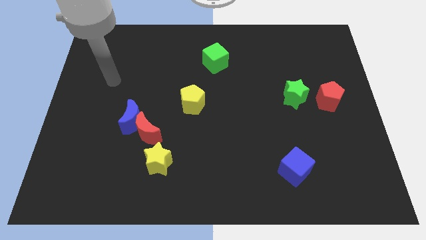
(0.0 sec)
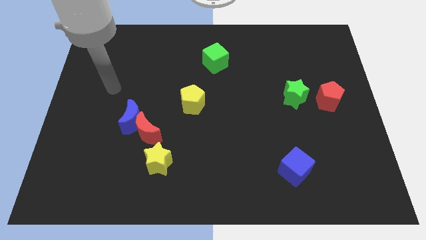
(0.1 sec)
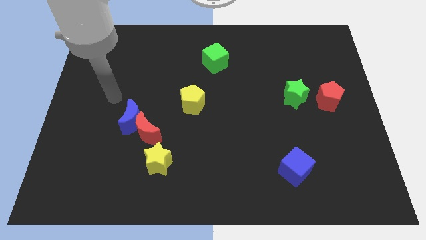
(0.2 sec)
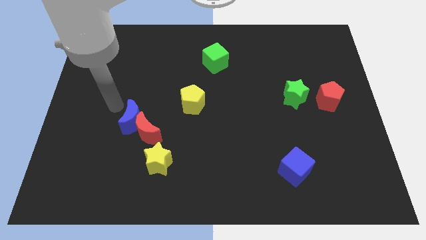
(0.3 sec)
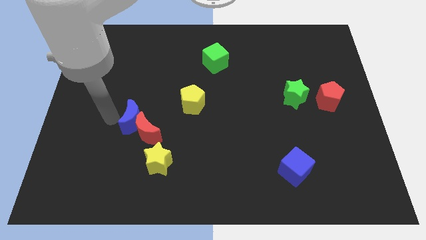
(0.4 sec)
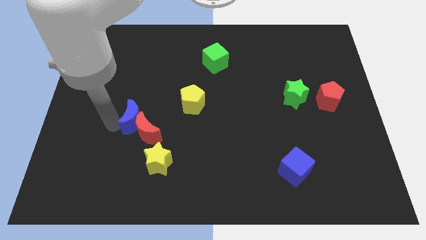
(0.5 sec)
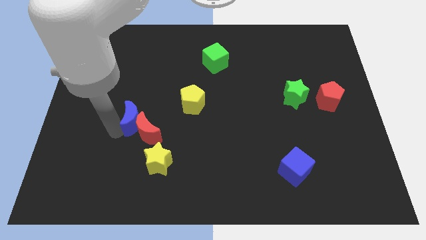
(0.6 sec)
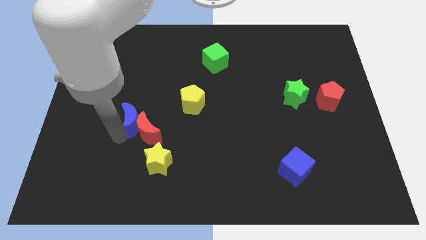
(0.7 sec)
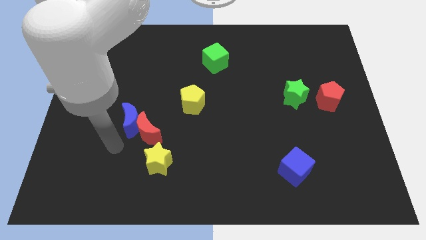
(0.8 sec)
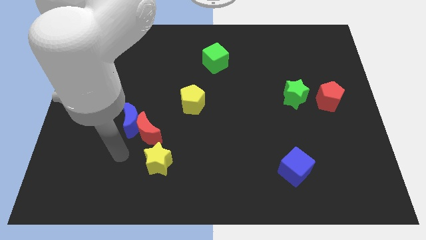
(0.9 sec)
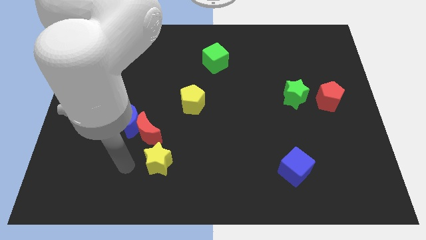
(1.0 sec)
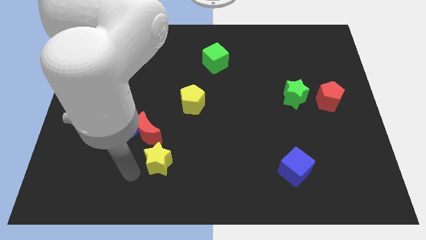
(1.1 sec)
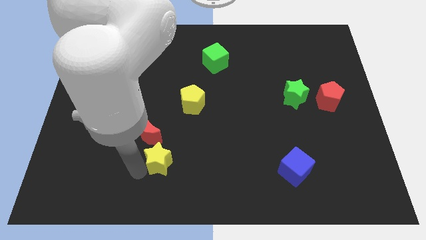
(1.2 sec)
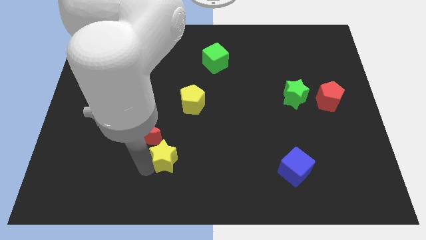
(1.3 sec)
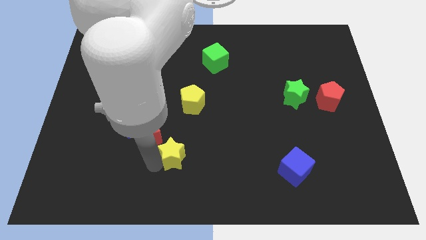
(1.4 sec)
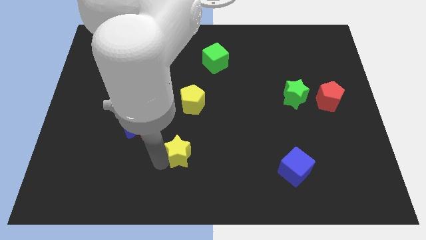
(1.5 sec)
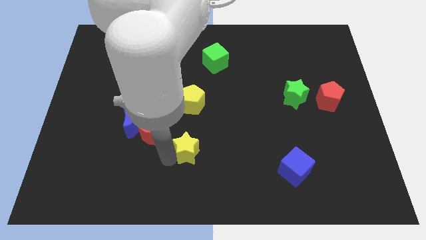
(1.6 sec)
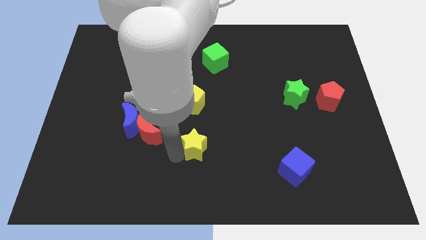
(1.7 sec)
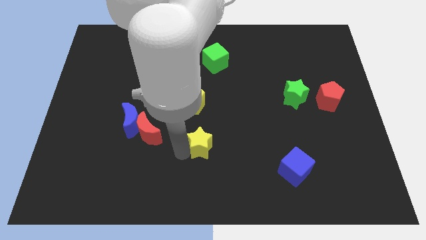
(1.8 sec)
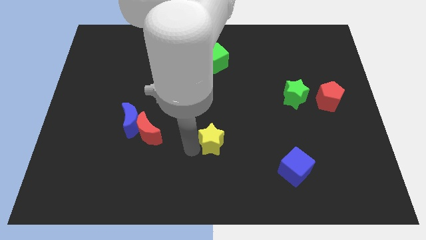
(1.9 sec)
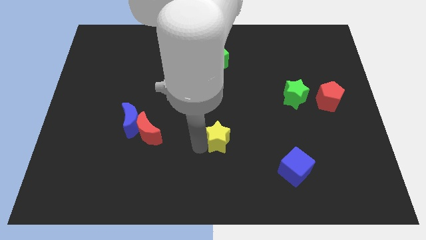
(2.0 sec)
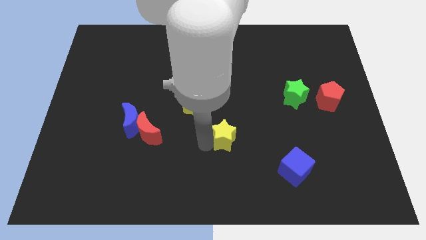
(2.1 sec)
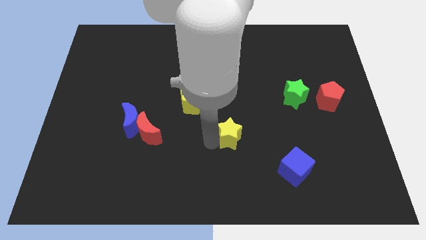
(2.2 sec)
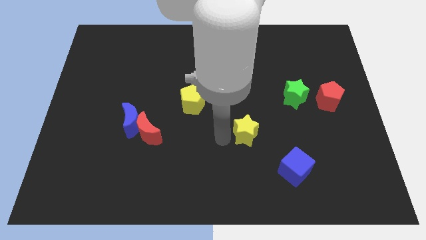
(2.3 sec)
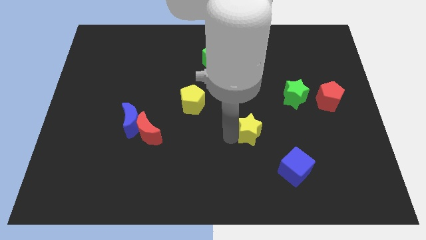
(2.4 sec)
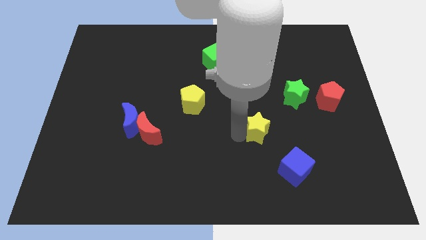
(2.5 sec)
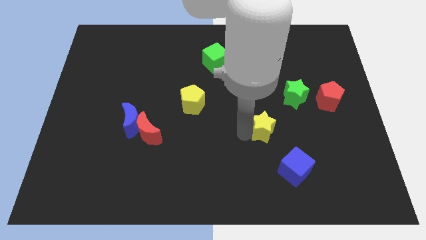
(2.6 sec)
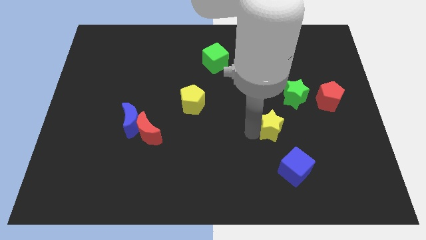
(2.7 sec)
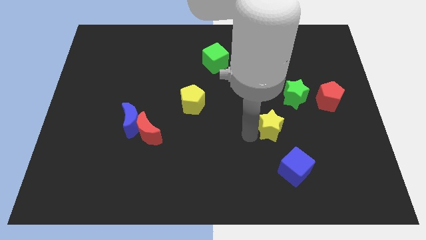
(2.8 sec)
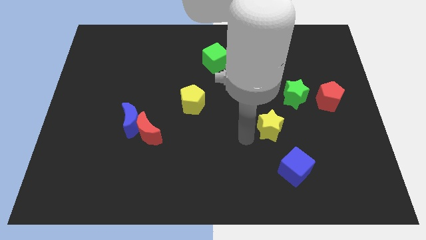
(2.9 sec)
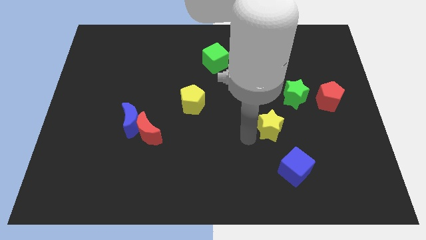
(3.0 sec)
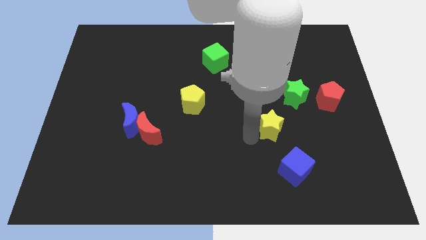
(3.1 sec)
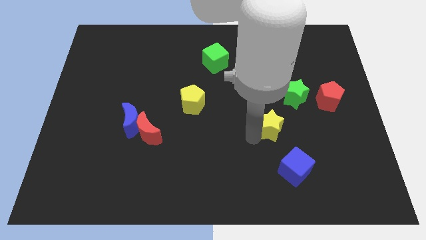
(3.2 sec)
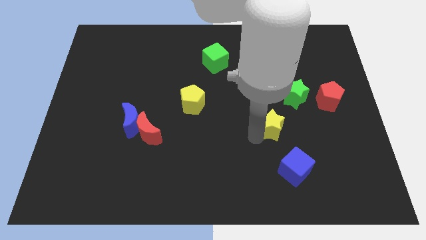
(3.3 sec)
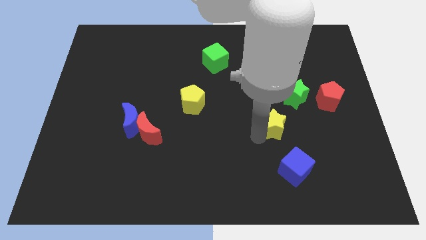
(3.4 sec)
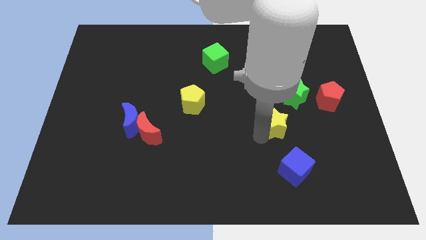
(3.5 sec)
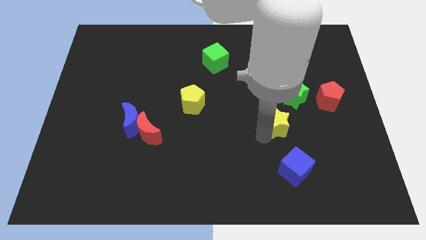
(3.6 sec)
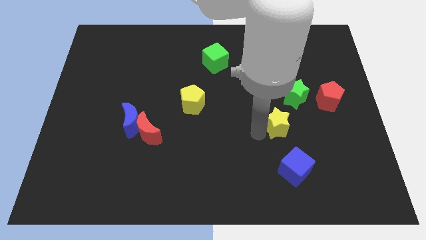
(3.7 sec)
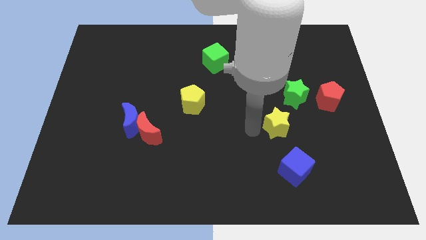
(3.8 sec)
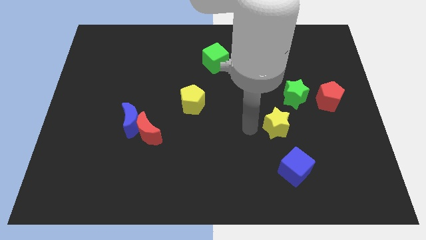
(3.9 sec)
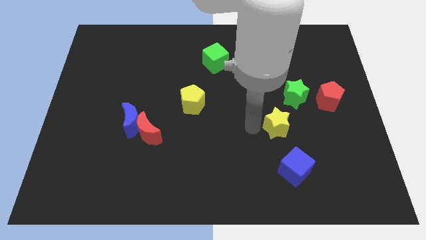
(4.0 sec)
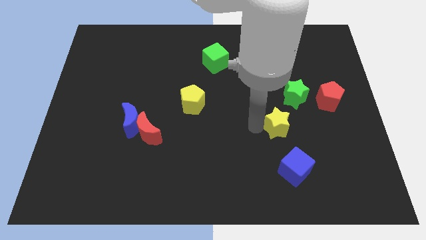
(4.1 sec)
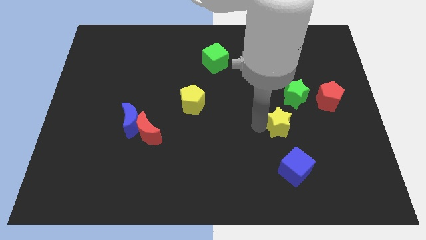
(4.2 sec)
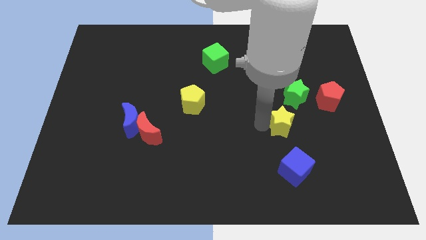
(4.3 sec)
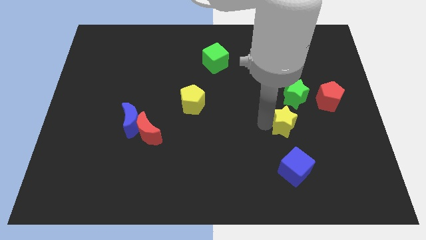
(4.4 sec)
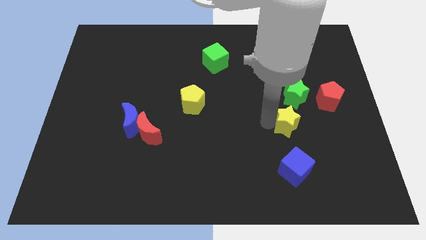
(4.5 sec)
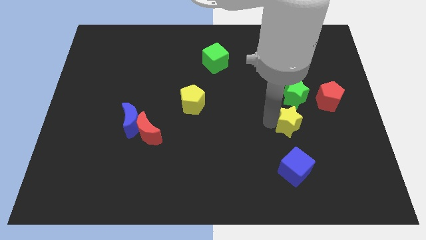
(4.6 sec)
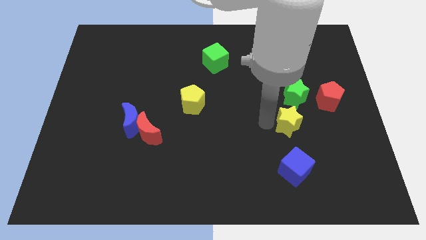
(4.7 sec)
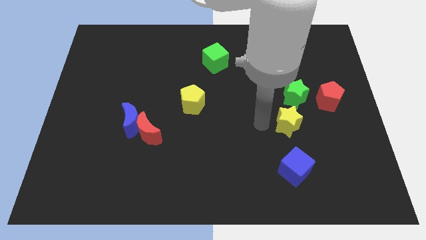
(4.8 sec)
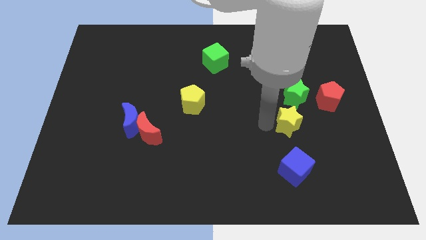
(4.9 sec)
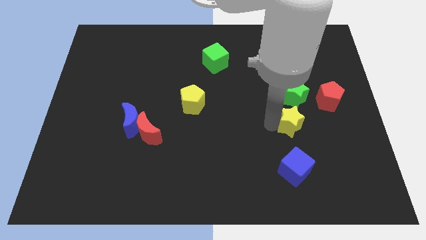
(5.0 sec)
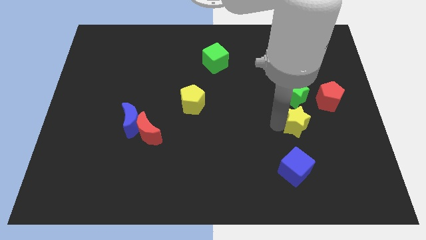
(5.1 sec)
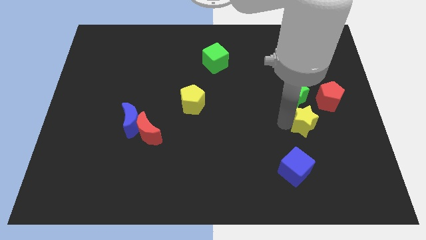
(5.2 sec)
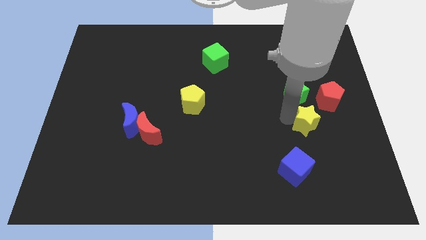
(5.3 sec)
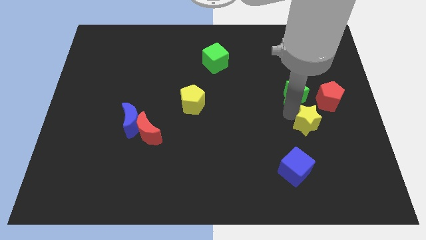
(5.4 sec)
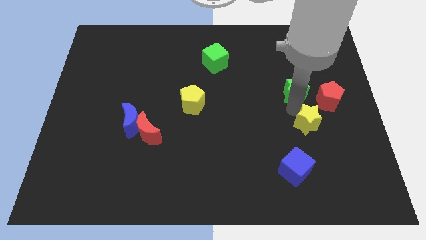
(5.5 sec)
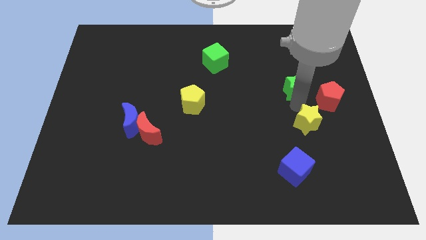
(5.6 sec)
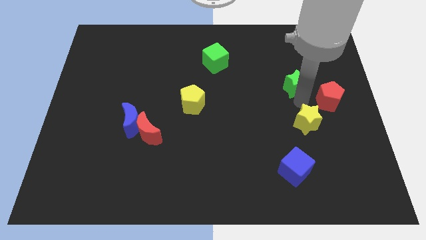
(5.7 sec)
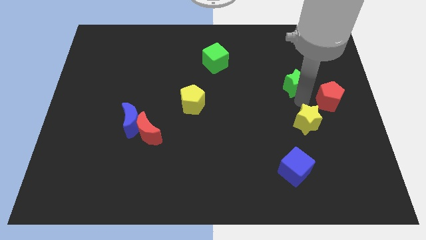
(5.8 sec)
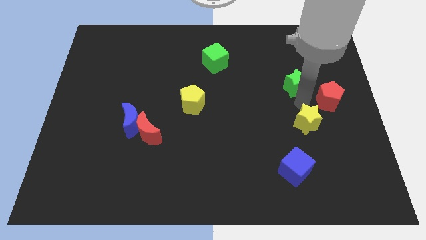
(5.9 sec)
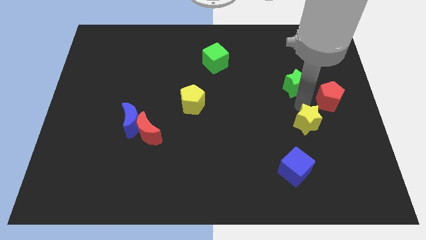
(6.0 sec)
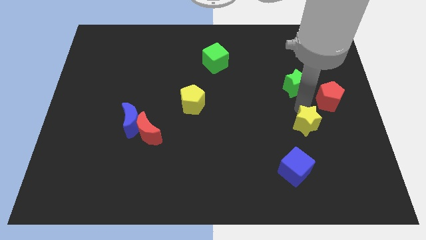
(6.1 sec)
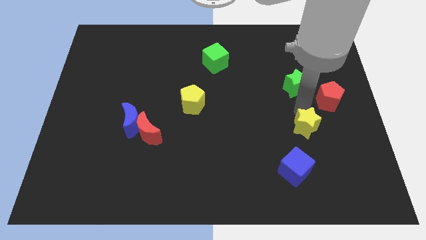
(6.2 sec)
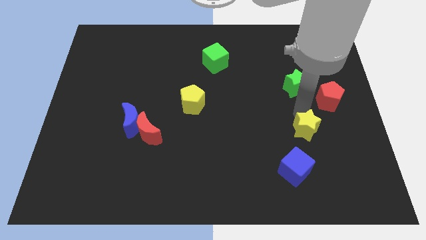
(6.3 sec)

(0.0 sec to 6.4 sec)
slide the yellow star to the top right of the blue cube
